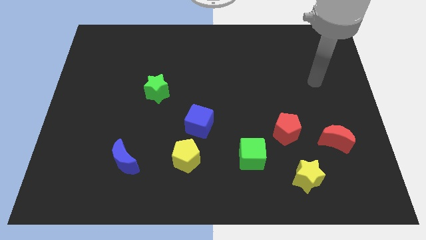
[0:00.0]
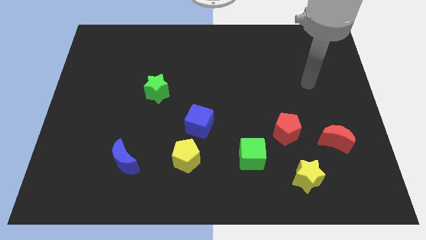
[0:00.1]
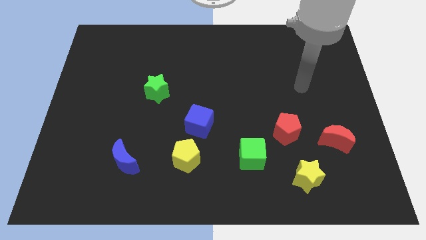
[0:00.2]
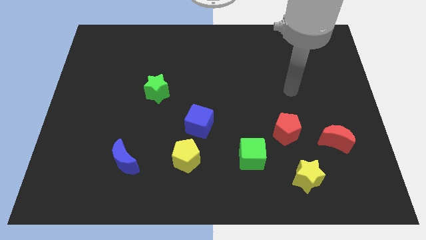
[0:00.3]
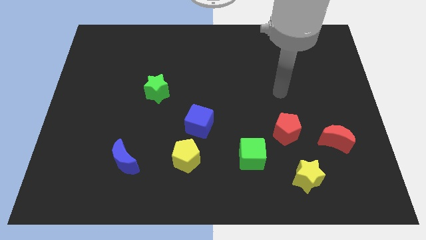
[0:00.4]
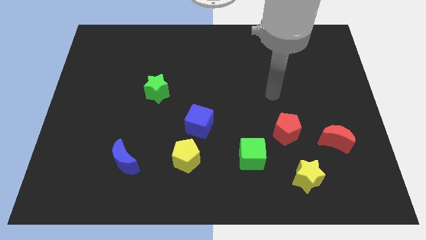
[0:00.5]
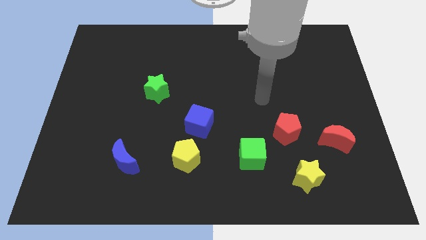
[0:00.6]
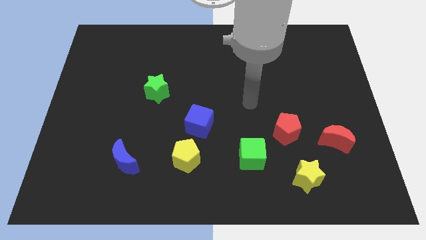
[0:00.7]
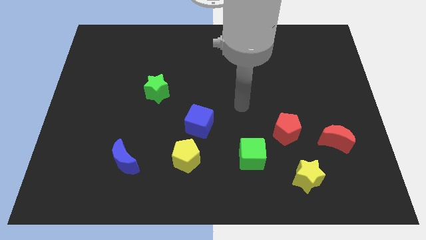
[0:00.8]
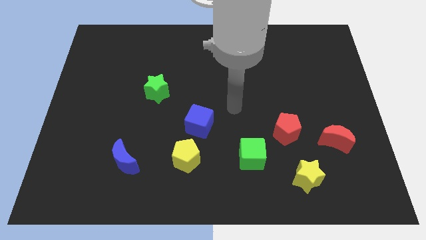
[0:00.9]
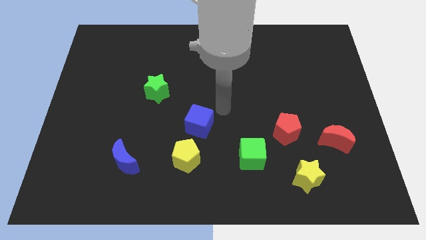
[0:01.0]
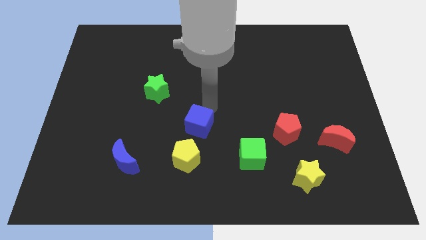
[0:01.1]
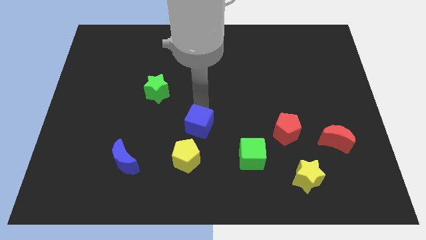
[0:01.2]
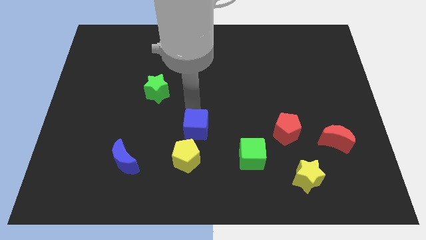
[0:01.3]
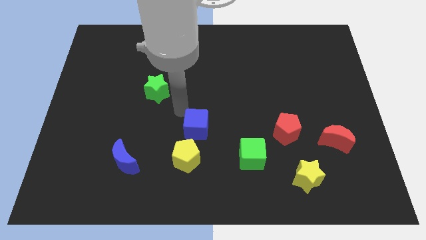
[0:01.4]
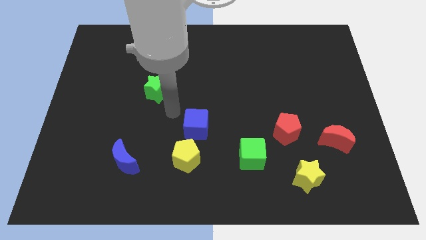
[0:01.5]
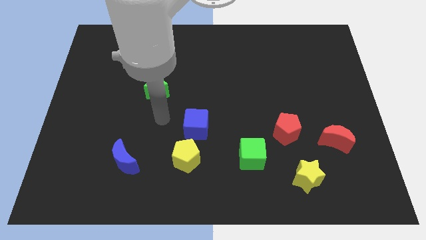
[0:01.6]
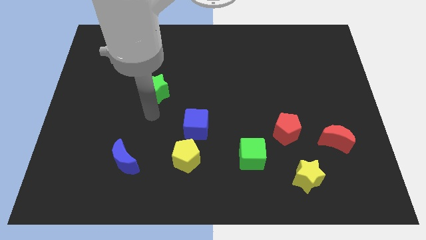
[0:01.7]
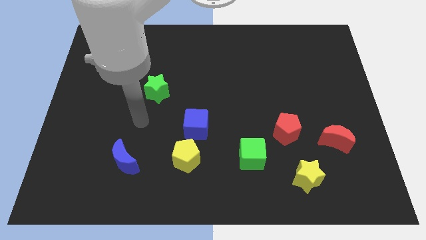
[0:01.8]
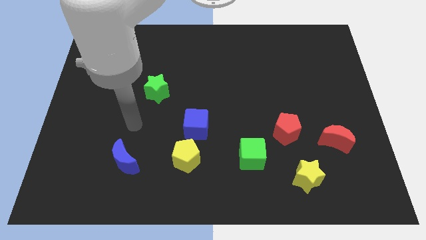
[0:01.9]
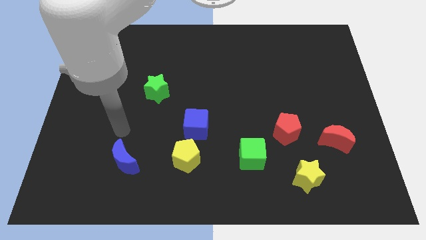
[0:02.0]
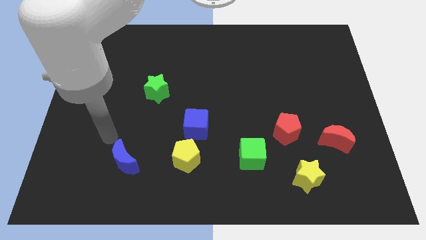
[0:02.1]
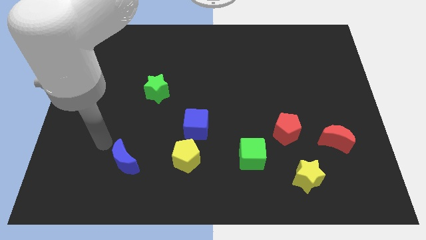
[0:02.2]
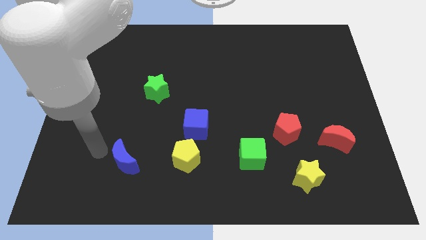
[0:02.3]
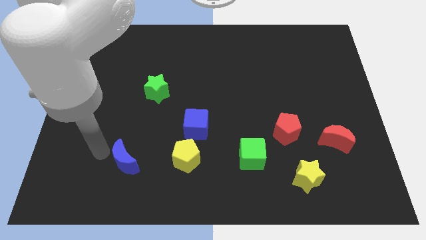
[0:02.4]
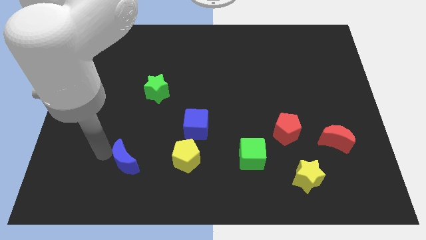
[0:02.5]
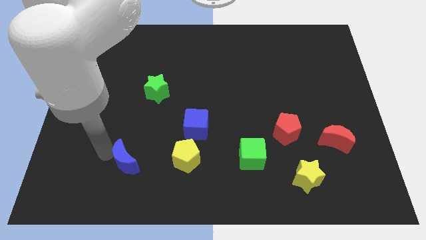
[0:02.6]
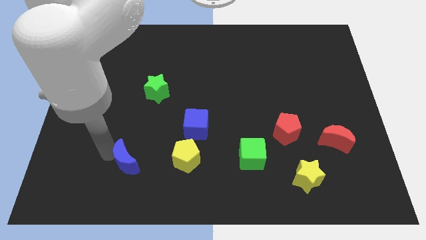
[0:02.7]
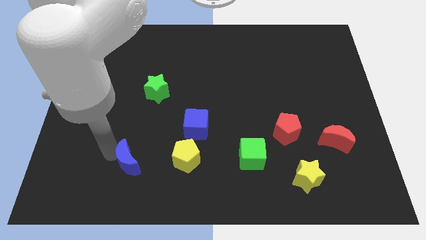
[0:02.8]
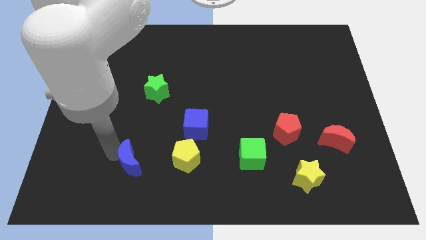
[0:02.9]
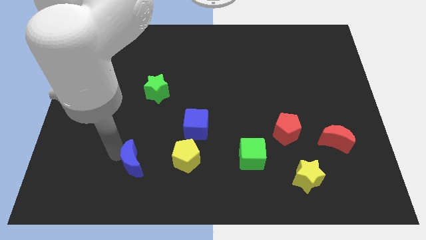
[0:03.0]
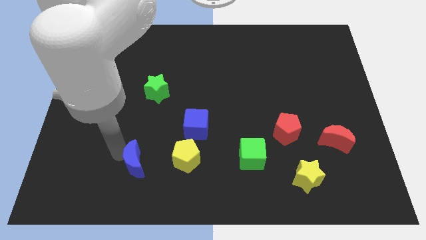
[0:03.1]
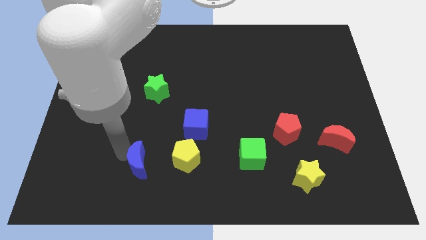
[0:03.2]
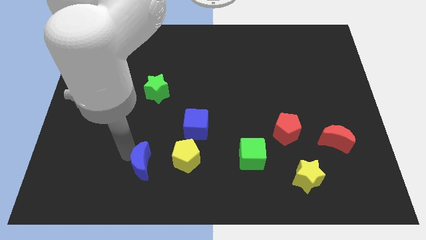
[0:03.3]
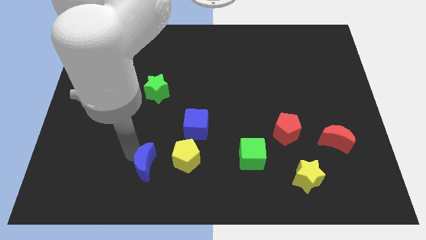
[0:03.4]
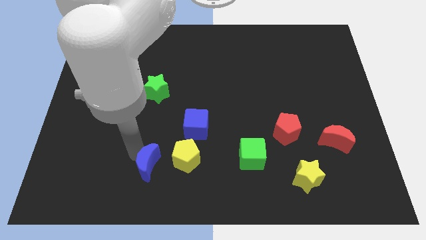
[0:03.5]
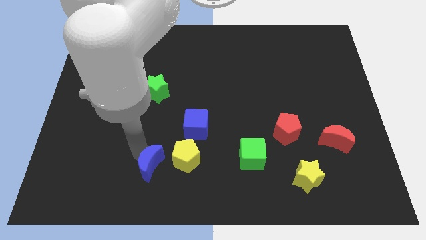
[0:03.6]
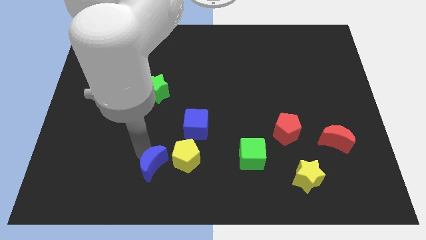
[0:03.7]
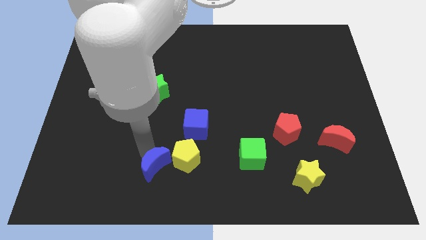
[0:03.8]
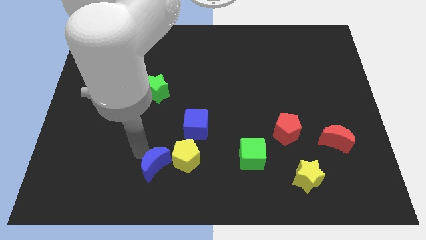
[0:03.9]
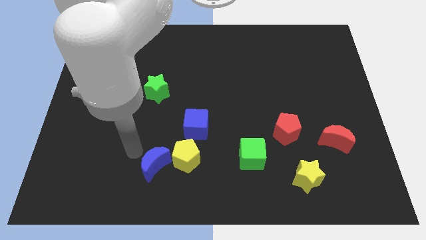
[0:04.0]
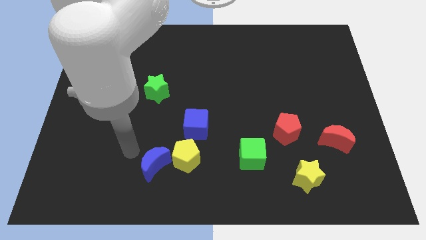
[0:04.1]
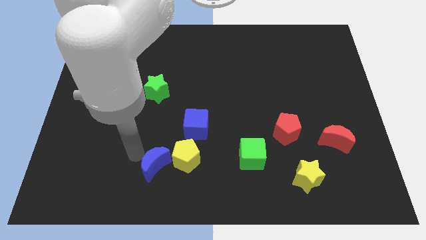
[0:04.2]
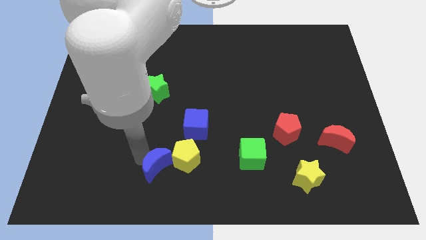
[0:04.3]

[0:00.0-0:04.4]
push the blue moon right somewhat

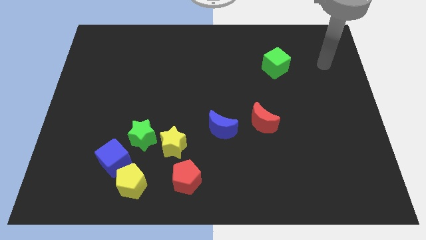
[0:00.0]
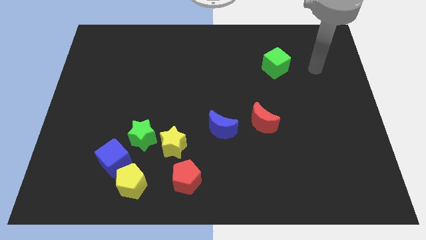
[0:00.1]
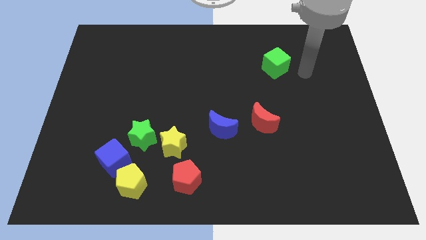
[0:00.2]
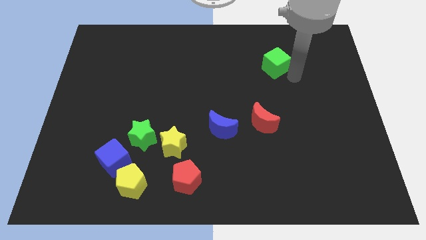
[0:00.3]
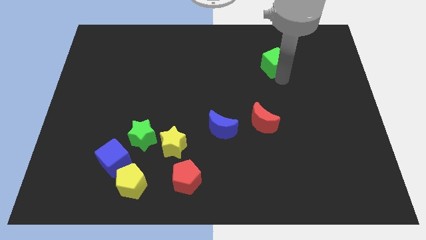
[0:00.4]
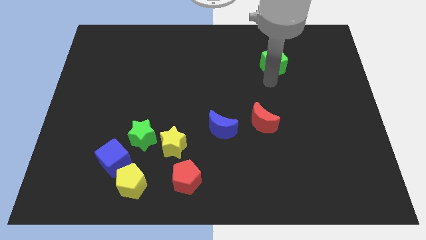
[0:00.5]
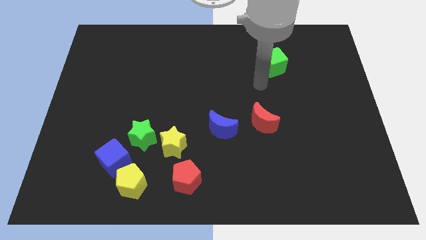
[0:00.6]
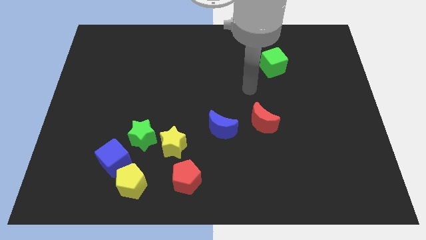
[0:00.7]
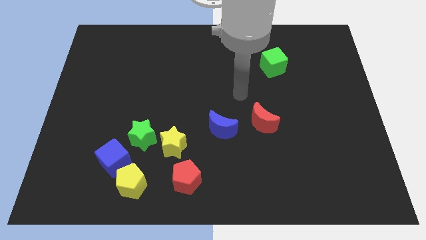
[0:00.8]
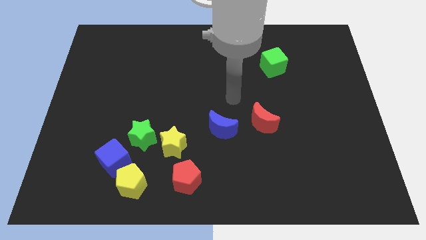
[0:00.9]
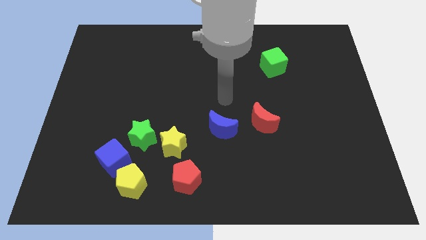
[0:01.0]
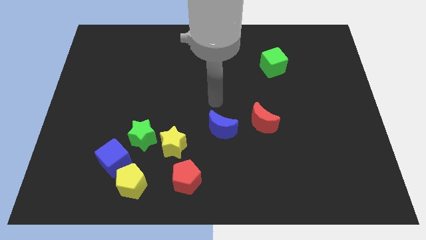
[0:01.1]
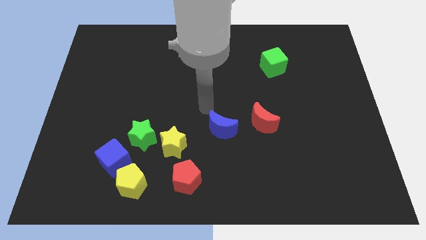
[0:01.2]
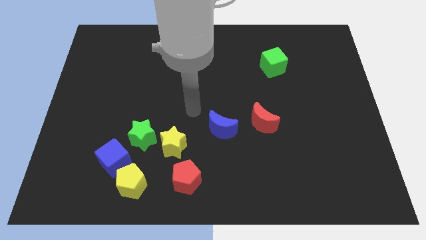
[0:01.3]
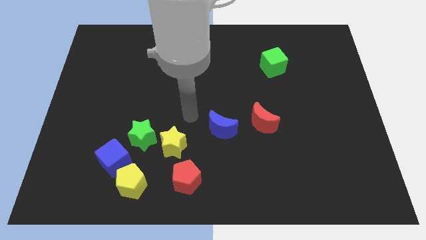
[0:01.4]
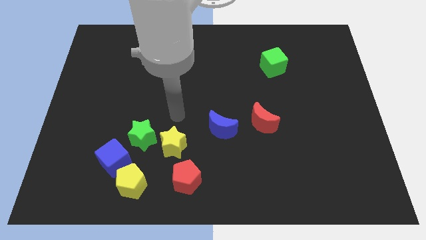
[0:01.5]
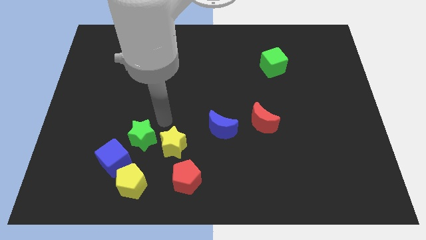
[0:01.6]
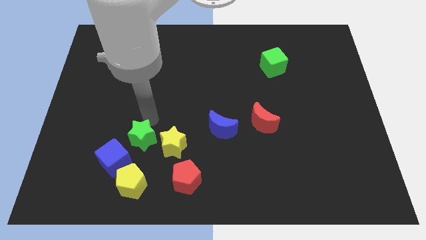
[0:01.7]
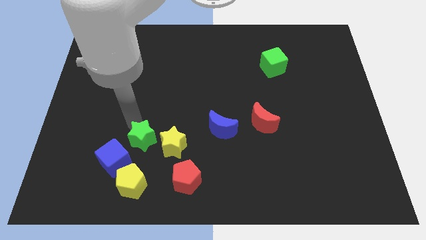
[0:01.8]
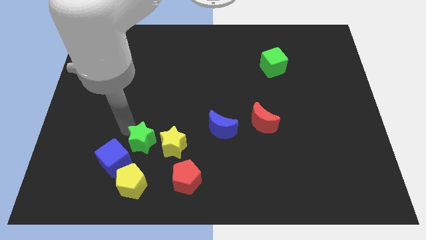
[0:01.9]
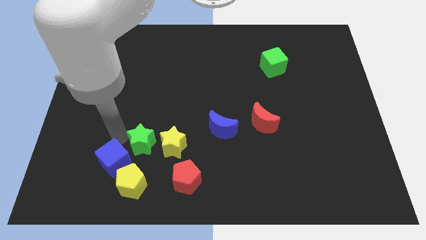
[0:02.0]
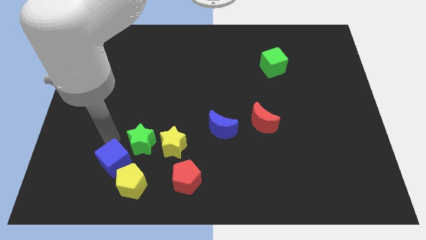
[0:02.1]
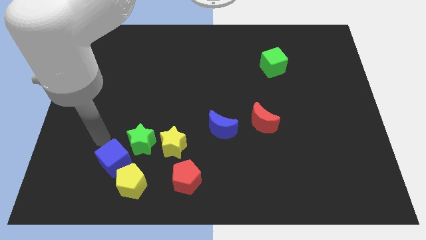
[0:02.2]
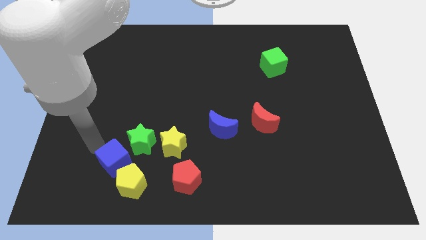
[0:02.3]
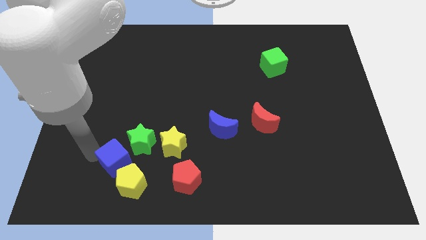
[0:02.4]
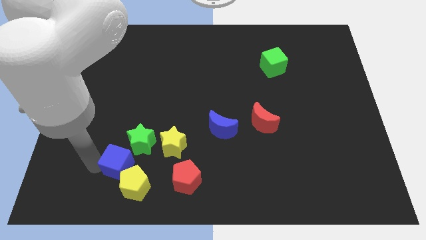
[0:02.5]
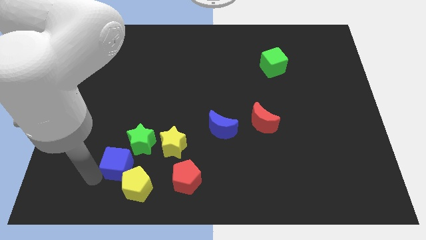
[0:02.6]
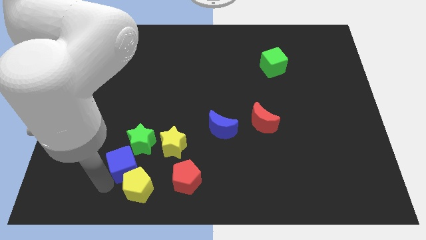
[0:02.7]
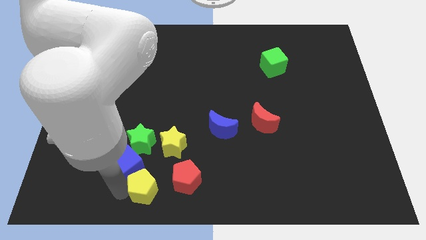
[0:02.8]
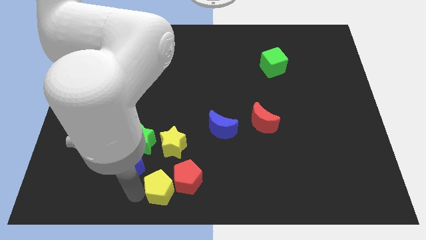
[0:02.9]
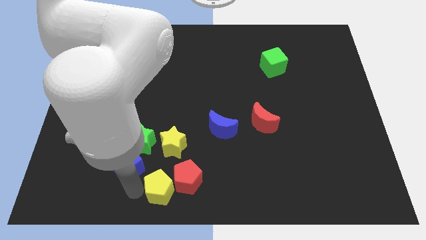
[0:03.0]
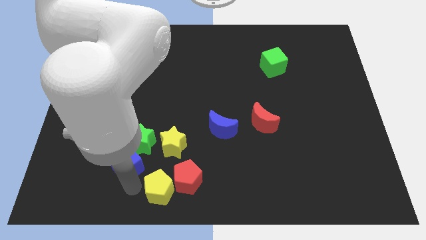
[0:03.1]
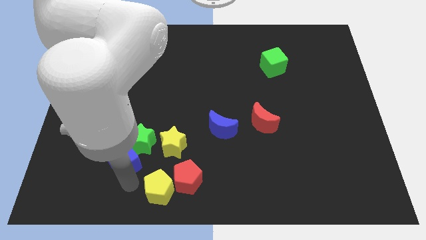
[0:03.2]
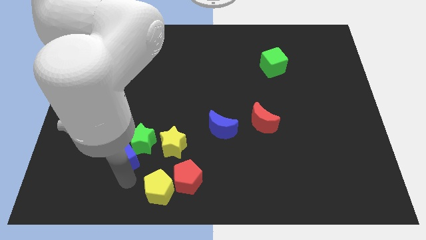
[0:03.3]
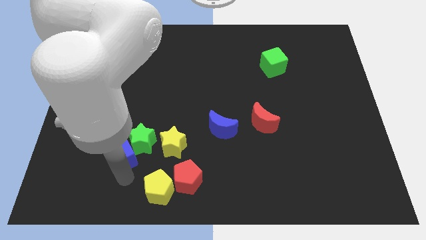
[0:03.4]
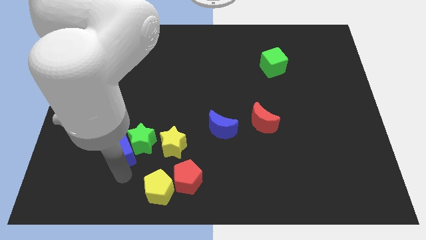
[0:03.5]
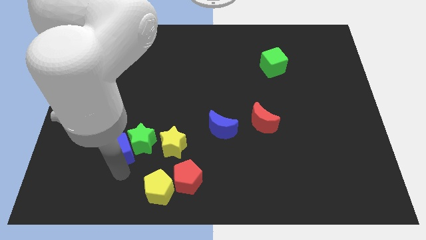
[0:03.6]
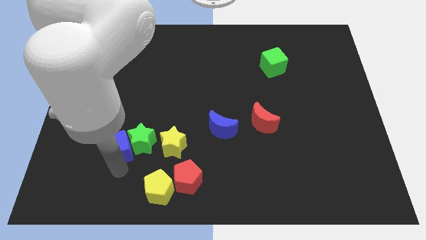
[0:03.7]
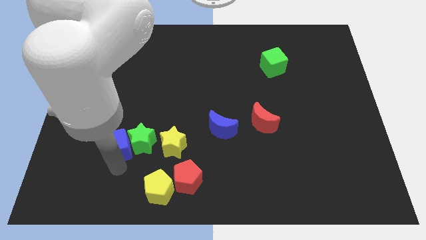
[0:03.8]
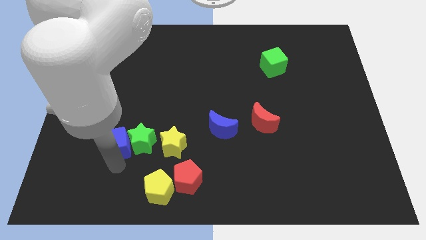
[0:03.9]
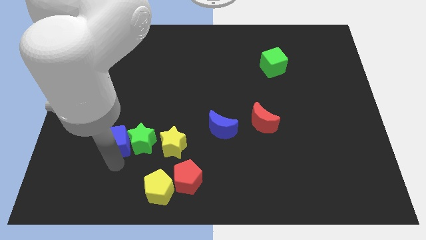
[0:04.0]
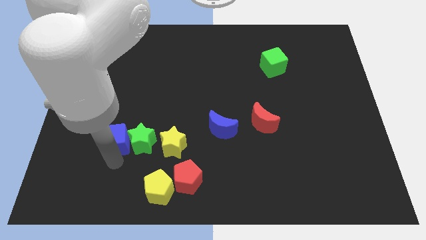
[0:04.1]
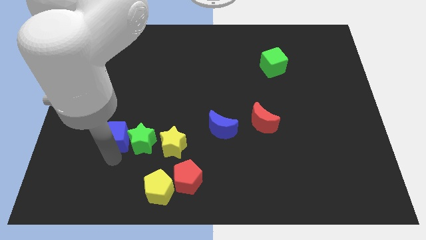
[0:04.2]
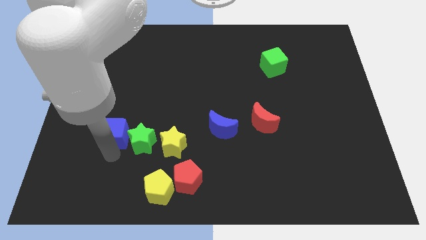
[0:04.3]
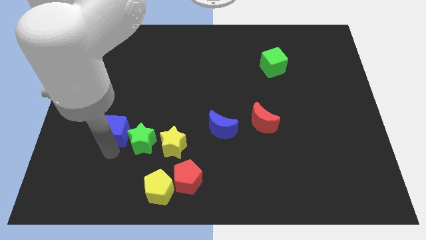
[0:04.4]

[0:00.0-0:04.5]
push the blue cube slightly upwards
